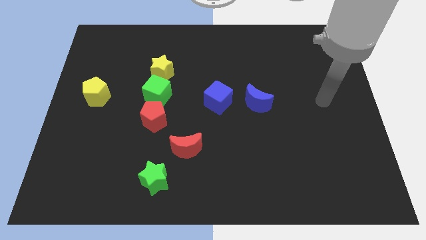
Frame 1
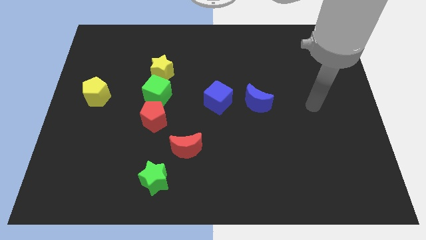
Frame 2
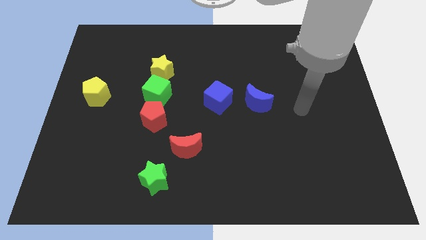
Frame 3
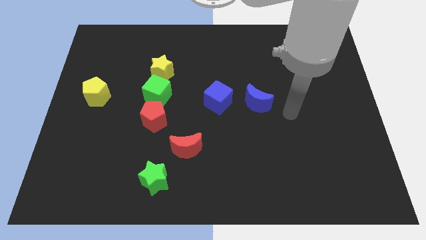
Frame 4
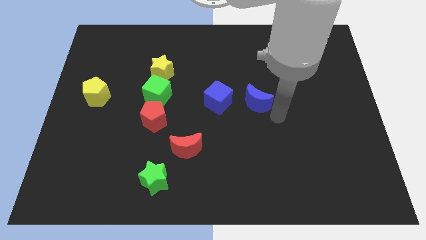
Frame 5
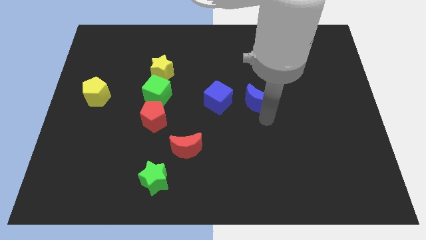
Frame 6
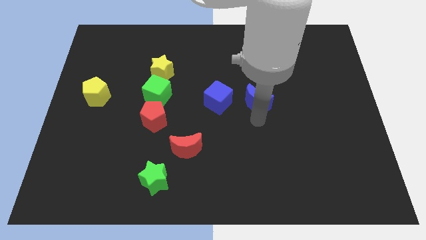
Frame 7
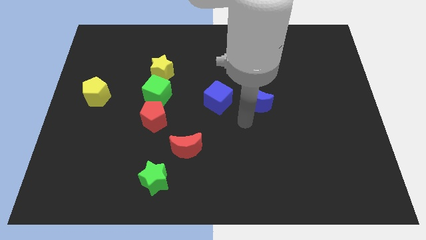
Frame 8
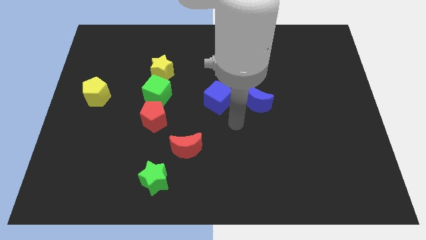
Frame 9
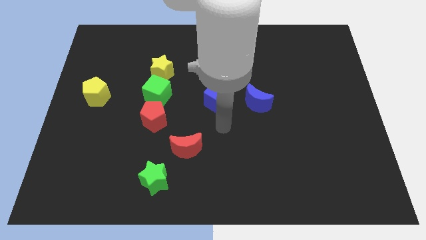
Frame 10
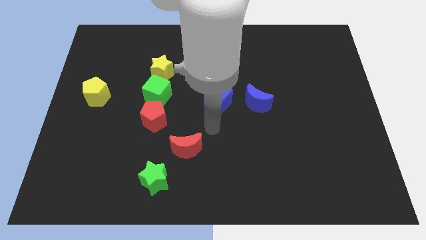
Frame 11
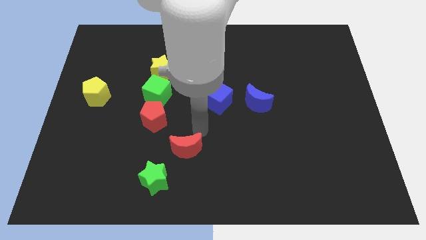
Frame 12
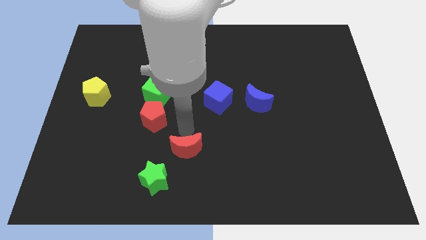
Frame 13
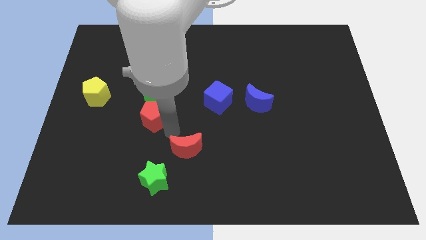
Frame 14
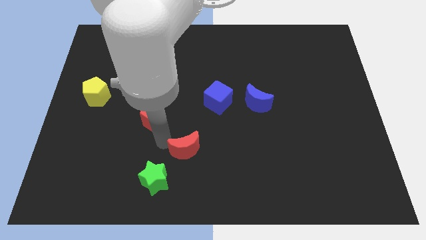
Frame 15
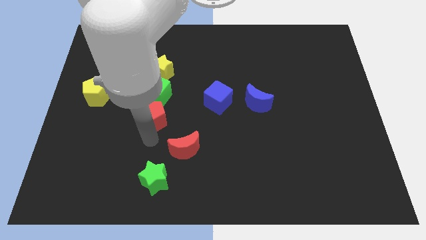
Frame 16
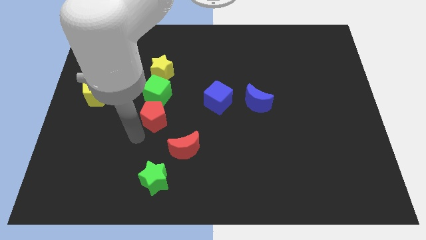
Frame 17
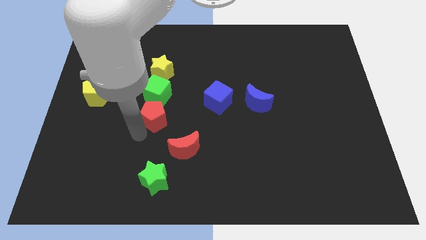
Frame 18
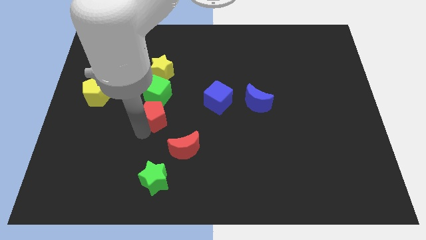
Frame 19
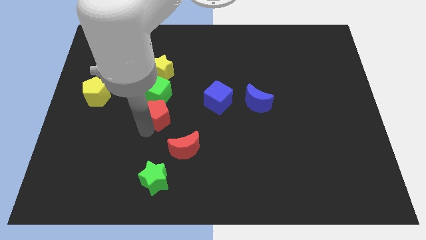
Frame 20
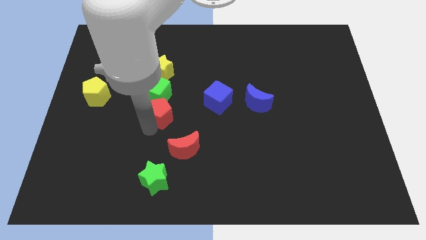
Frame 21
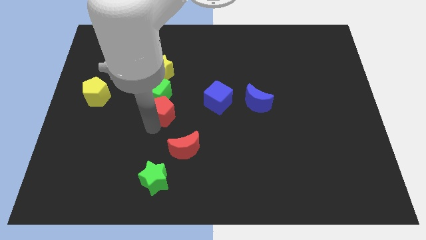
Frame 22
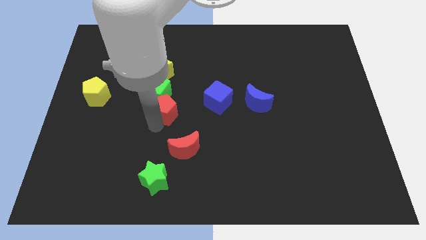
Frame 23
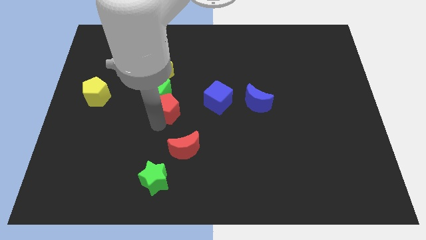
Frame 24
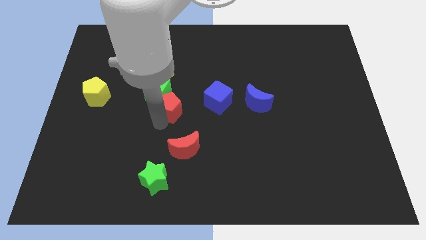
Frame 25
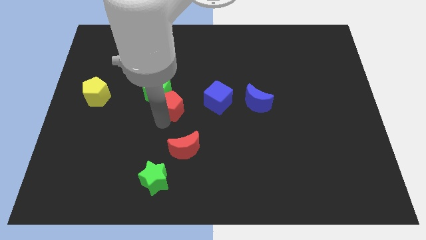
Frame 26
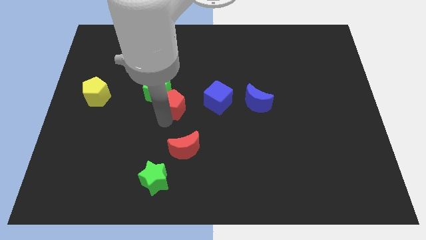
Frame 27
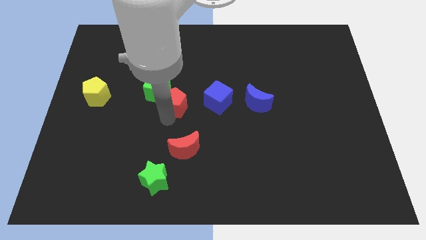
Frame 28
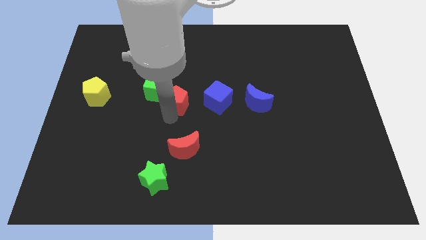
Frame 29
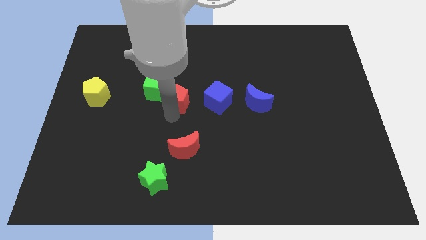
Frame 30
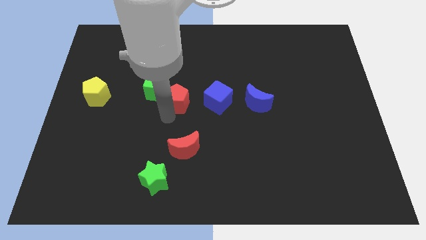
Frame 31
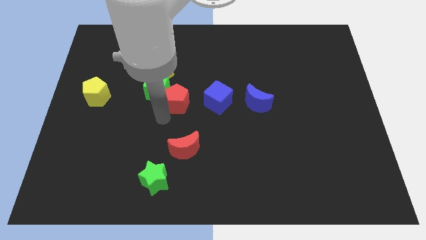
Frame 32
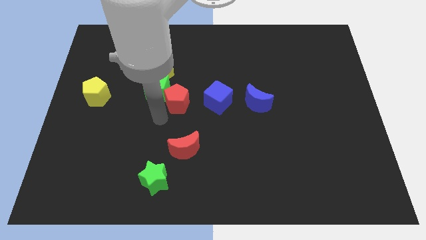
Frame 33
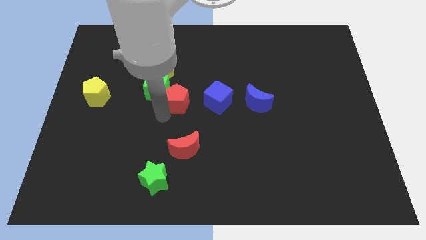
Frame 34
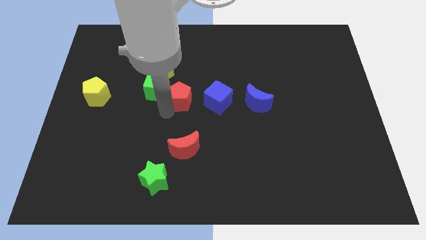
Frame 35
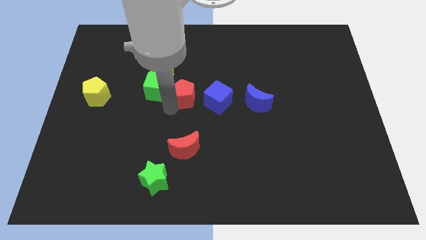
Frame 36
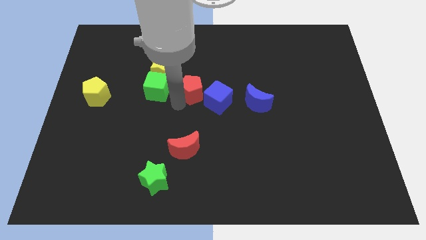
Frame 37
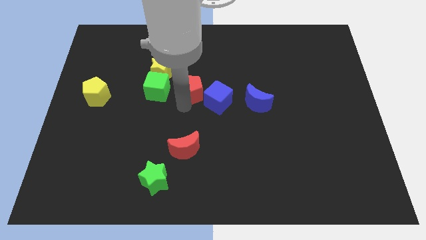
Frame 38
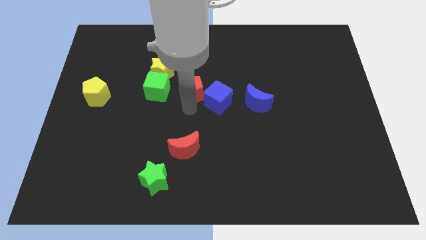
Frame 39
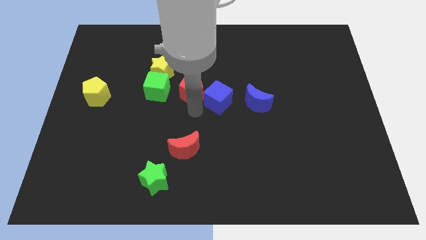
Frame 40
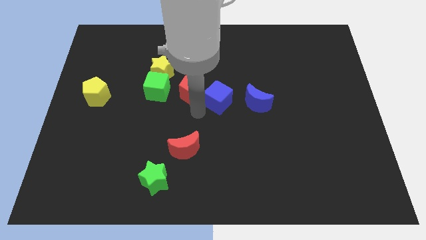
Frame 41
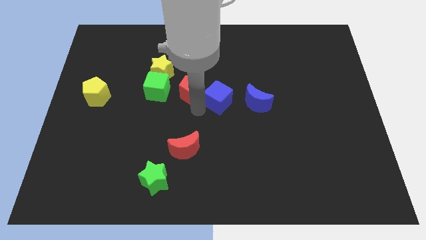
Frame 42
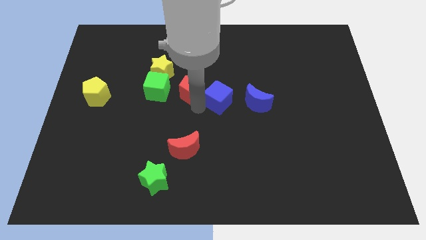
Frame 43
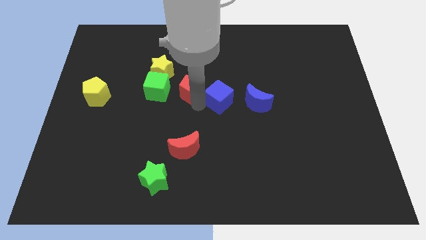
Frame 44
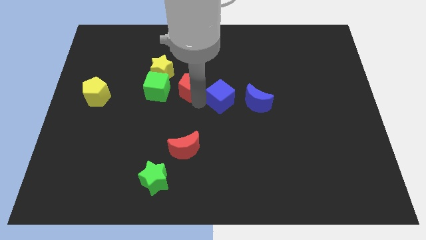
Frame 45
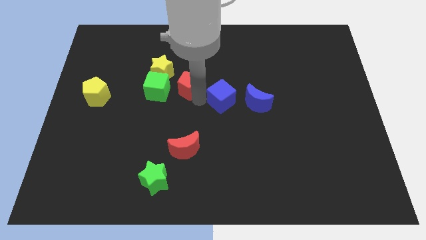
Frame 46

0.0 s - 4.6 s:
slightly move the red pentagon upwards

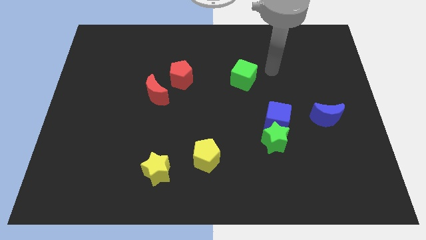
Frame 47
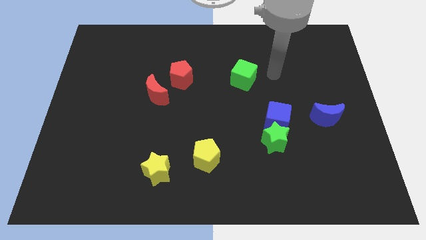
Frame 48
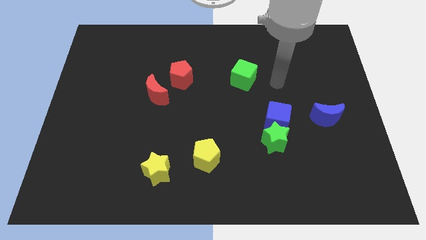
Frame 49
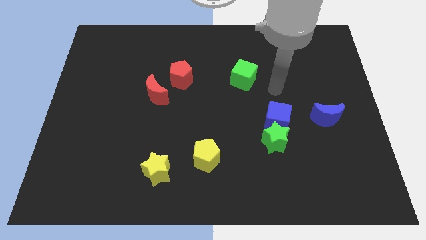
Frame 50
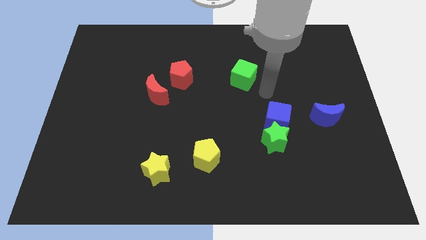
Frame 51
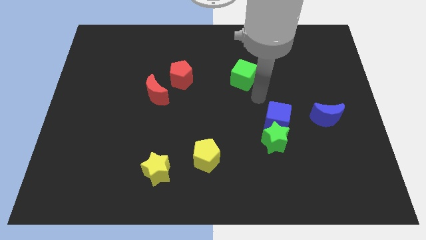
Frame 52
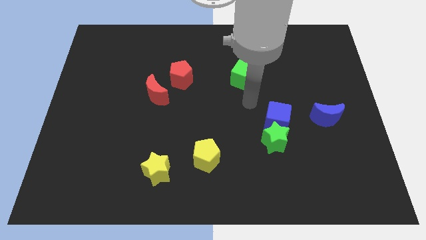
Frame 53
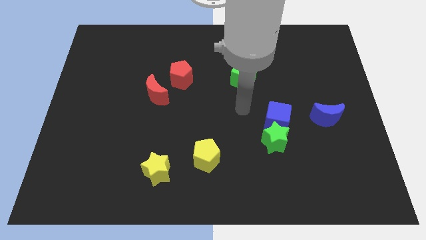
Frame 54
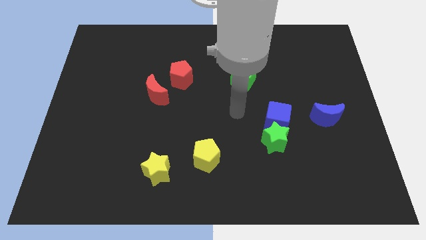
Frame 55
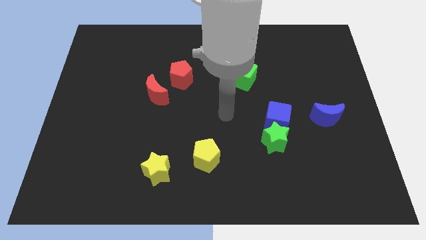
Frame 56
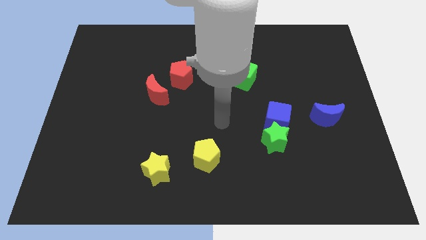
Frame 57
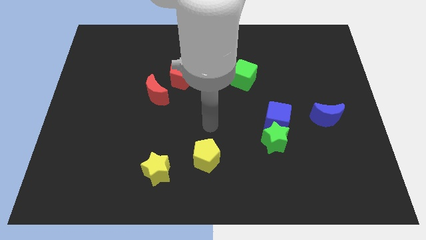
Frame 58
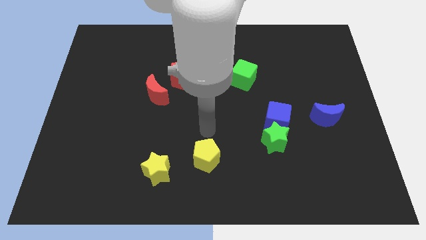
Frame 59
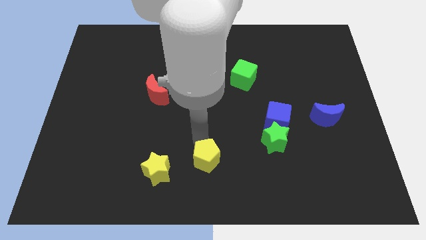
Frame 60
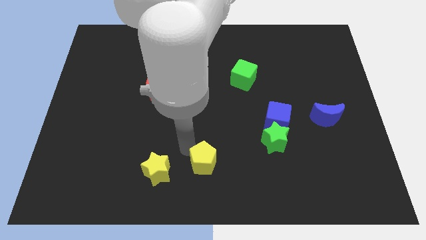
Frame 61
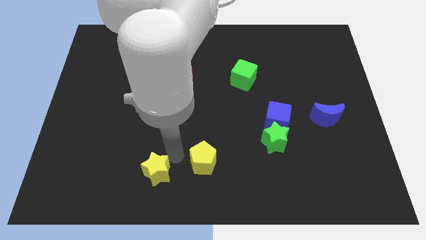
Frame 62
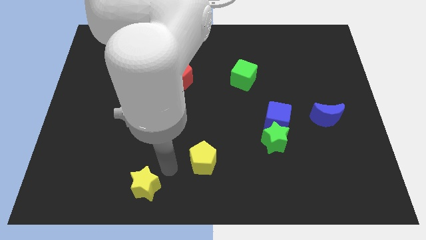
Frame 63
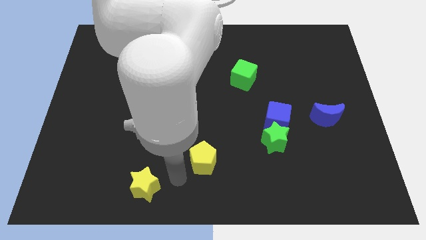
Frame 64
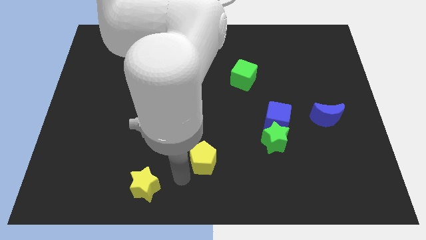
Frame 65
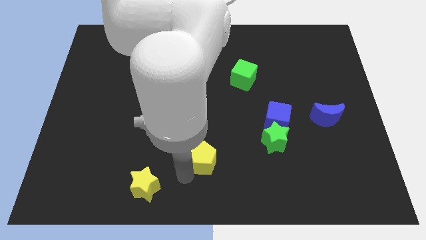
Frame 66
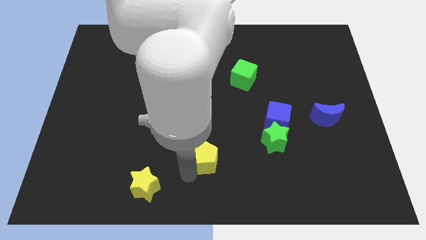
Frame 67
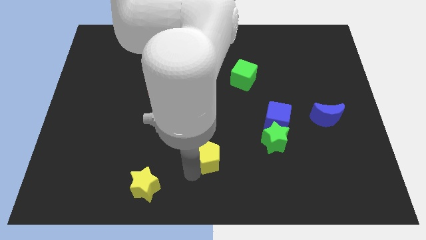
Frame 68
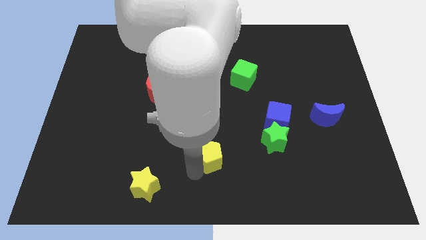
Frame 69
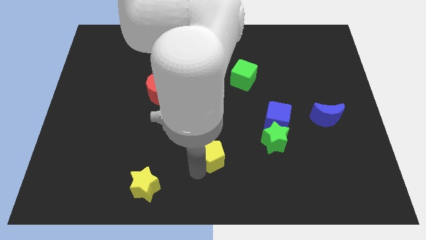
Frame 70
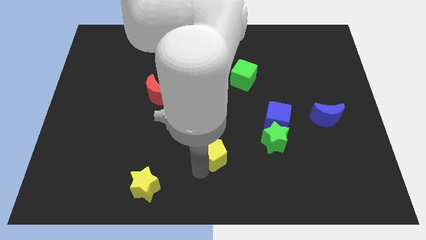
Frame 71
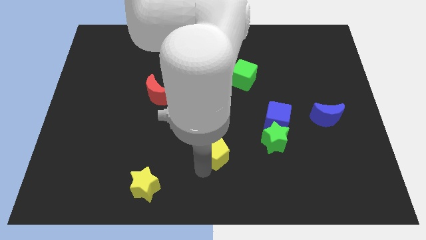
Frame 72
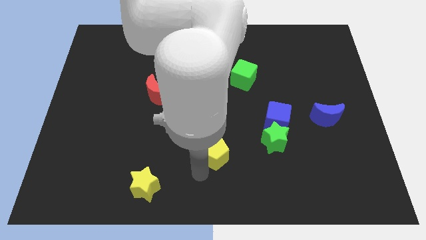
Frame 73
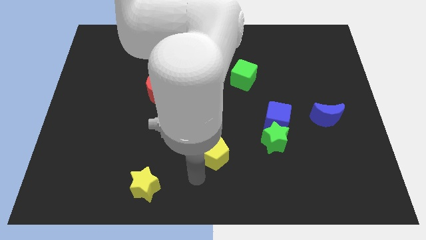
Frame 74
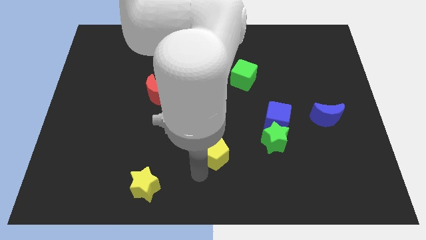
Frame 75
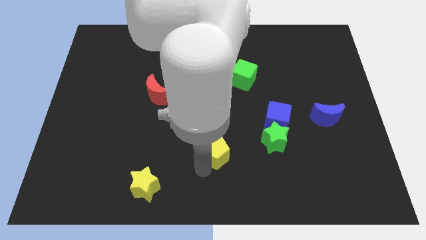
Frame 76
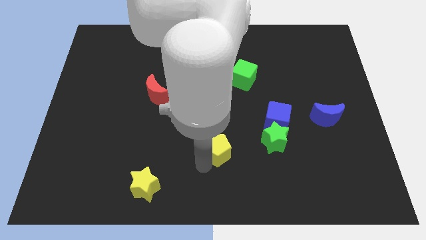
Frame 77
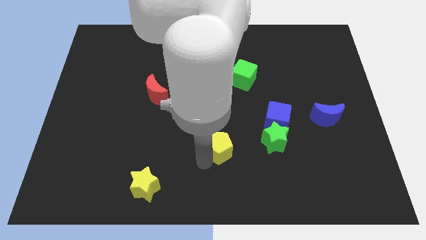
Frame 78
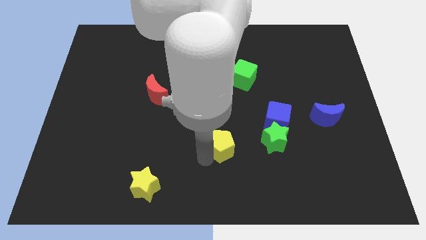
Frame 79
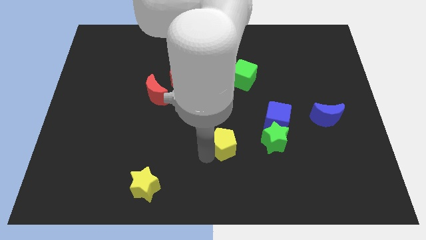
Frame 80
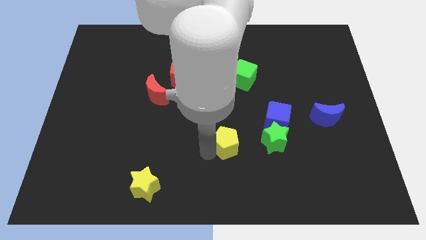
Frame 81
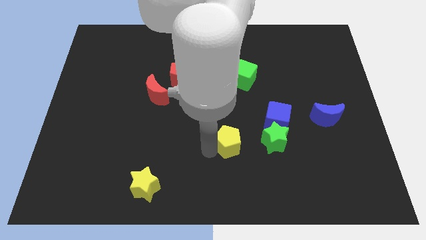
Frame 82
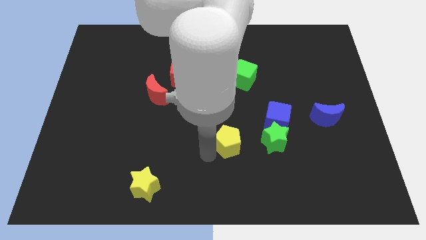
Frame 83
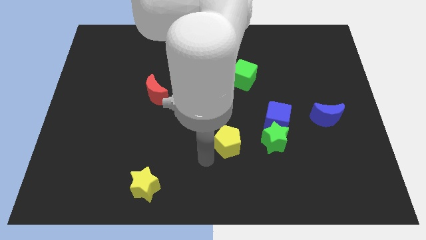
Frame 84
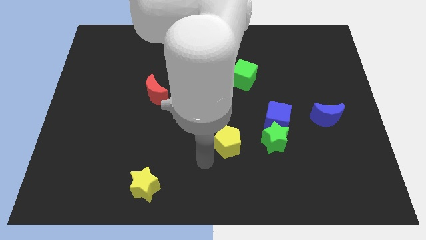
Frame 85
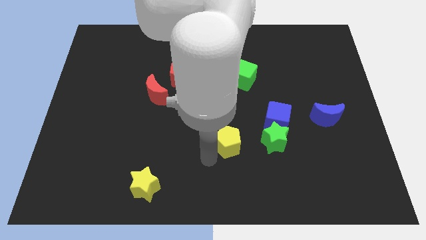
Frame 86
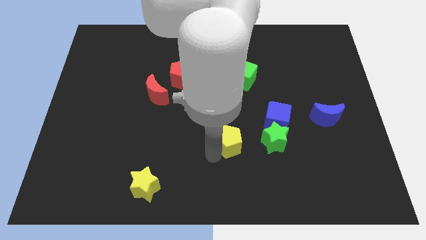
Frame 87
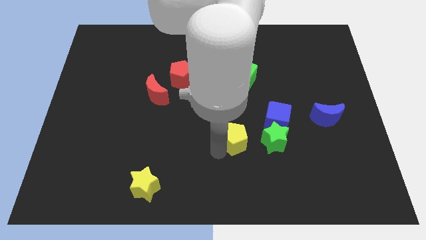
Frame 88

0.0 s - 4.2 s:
slide the yellow pentagon upwards and right diagonally slightly
